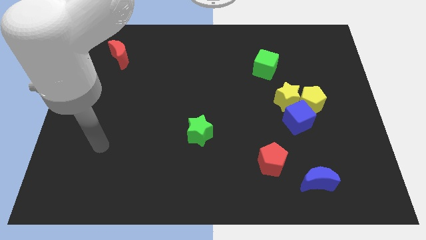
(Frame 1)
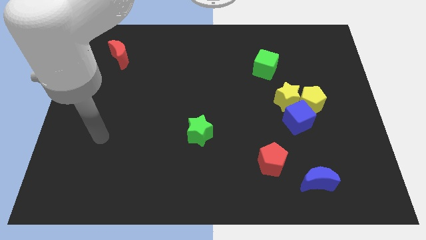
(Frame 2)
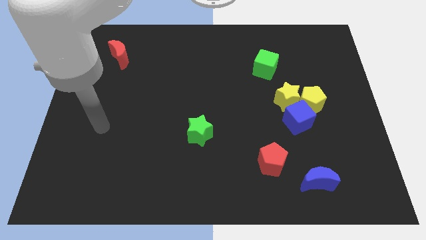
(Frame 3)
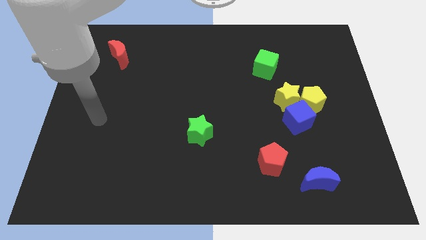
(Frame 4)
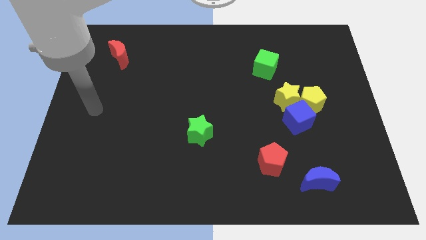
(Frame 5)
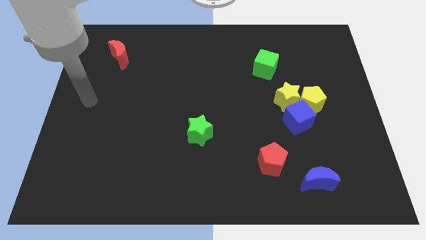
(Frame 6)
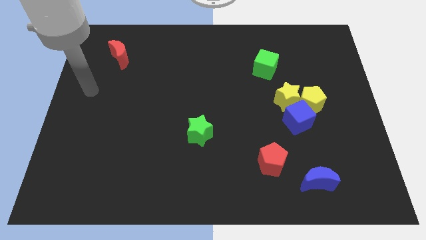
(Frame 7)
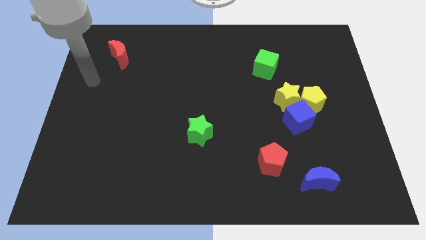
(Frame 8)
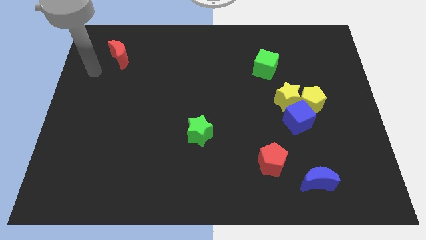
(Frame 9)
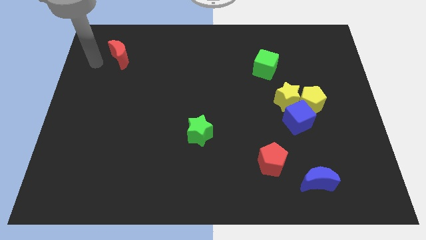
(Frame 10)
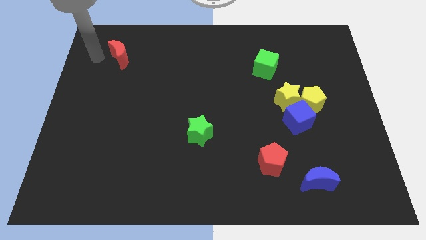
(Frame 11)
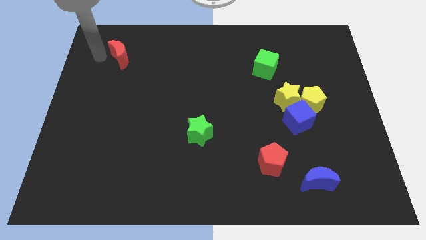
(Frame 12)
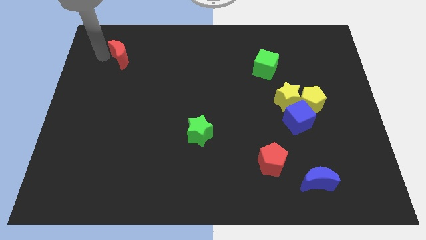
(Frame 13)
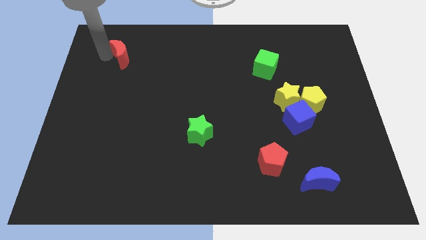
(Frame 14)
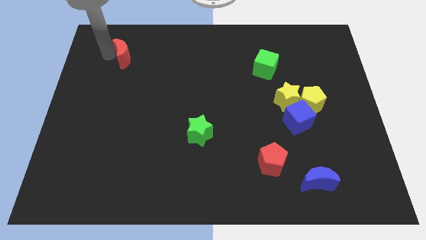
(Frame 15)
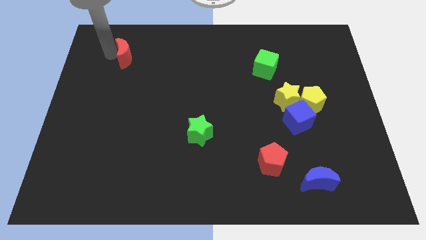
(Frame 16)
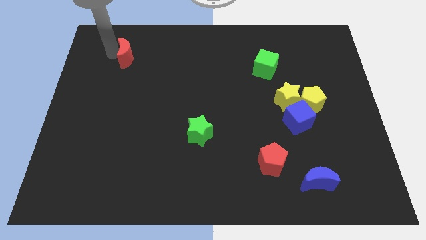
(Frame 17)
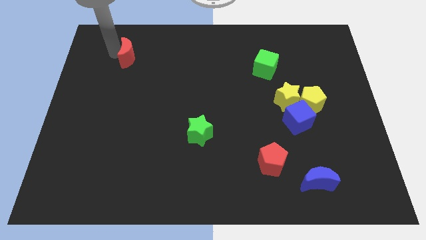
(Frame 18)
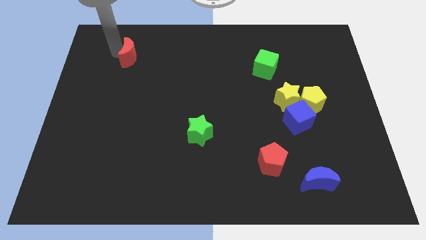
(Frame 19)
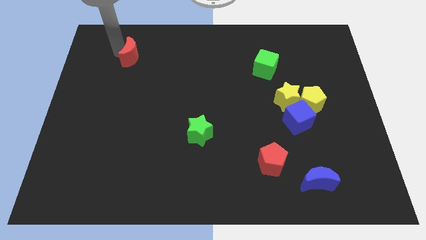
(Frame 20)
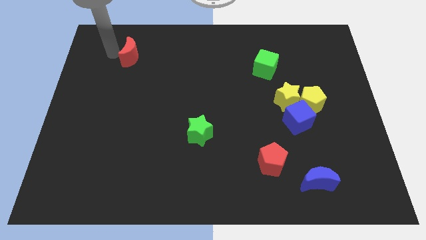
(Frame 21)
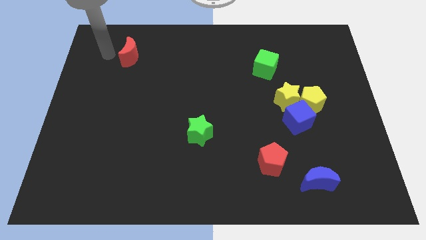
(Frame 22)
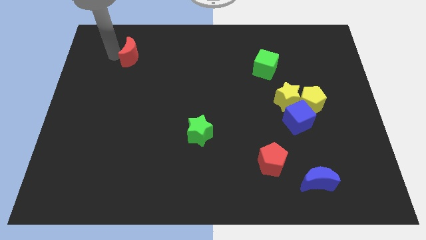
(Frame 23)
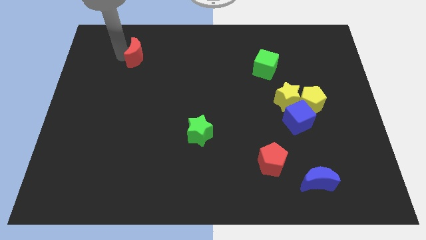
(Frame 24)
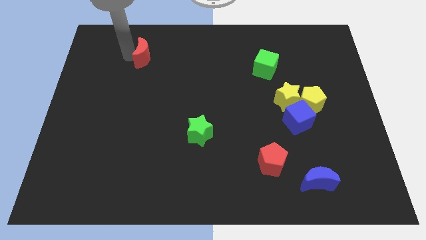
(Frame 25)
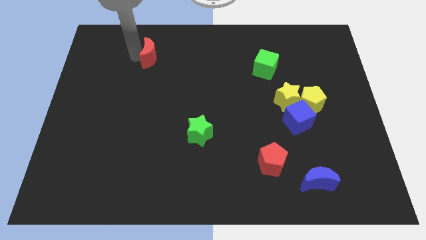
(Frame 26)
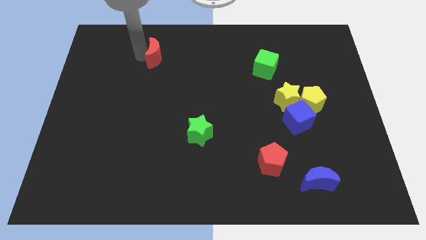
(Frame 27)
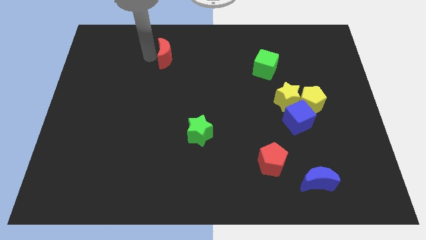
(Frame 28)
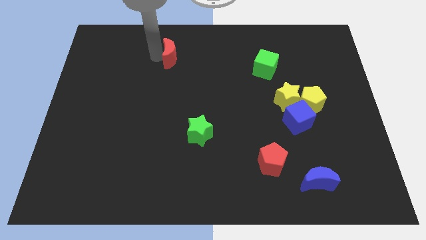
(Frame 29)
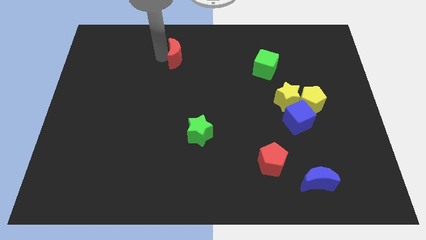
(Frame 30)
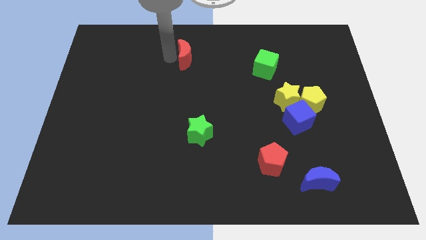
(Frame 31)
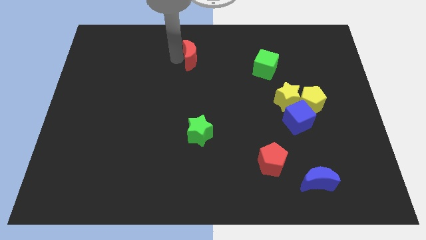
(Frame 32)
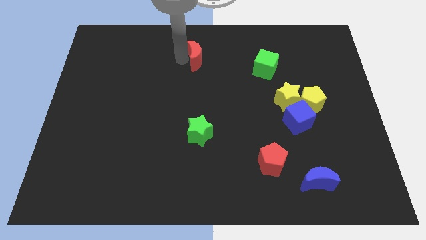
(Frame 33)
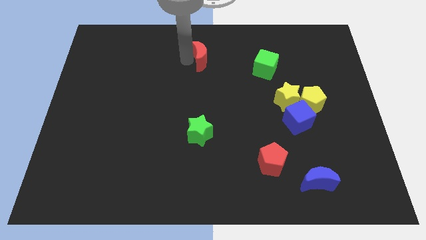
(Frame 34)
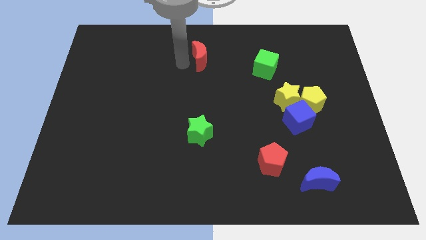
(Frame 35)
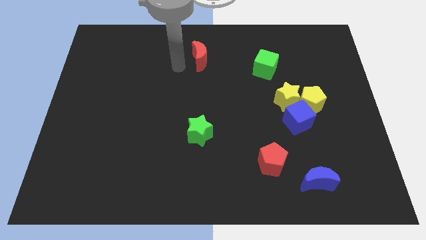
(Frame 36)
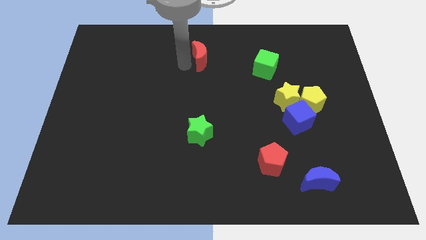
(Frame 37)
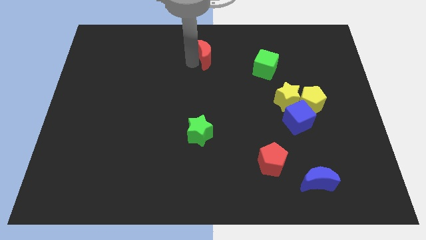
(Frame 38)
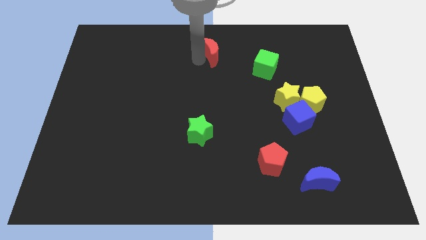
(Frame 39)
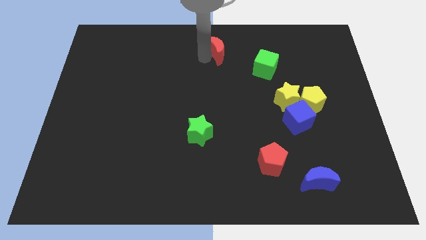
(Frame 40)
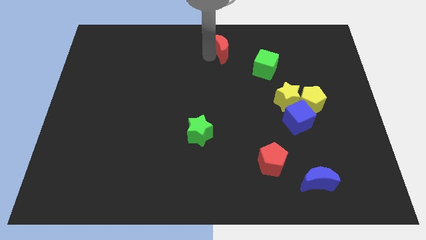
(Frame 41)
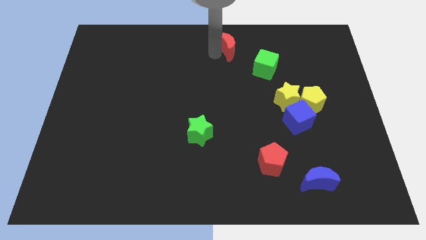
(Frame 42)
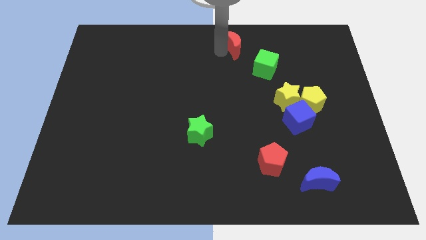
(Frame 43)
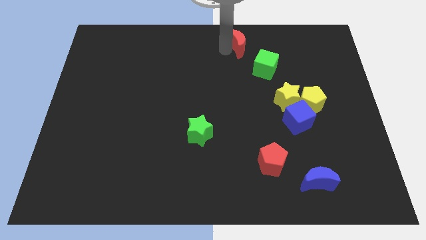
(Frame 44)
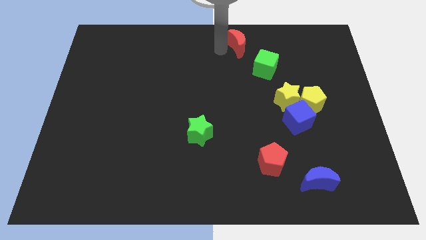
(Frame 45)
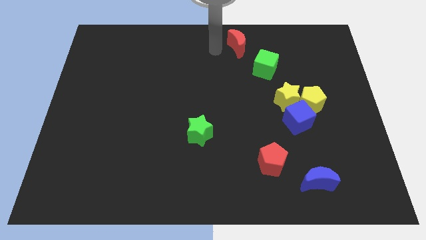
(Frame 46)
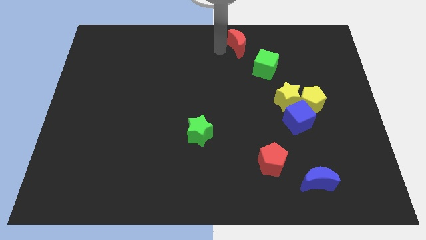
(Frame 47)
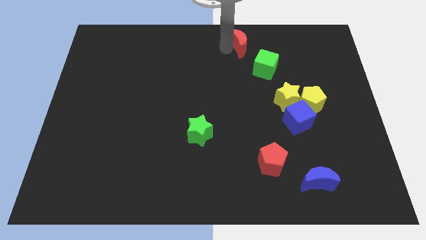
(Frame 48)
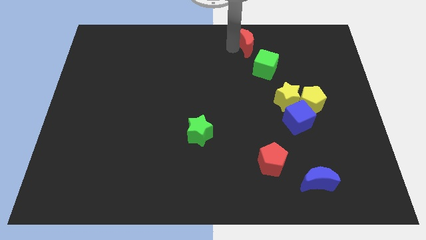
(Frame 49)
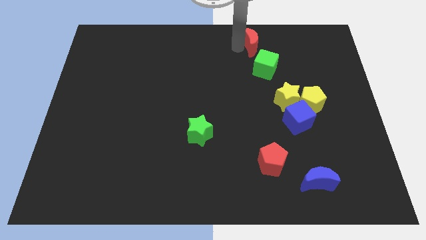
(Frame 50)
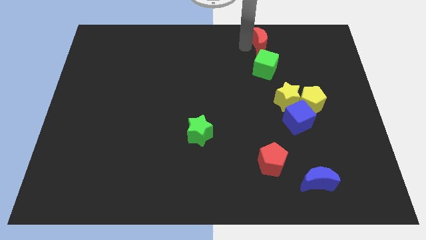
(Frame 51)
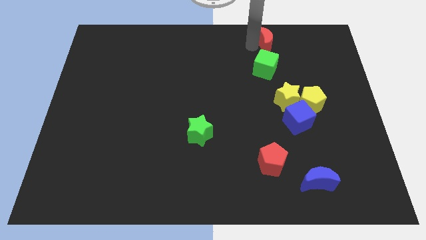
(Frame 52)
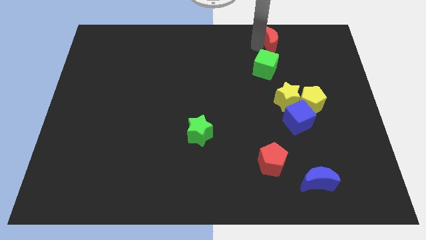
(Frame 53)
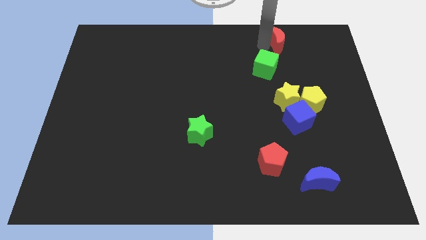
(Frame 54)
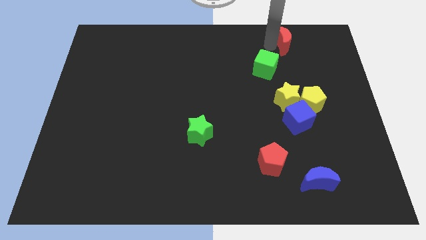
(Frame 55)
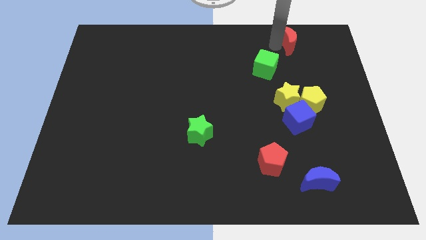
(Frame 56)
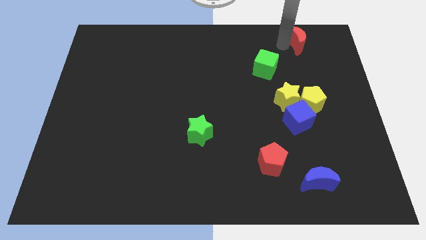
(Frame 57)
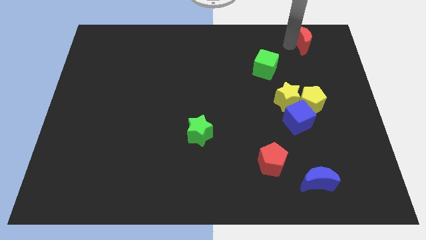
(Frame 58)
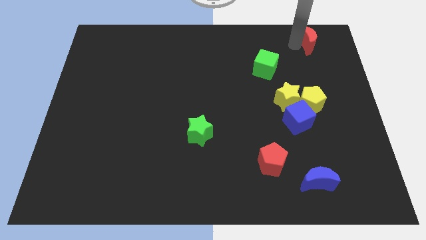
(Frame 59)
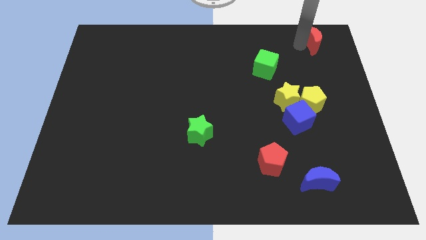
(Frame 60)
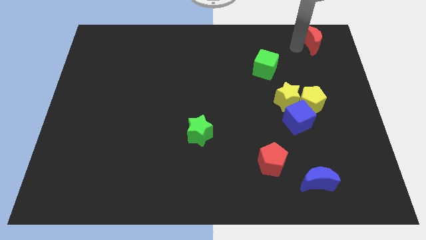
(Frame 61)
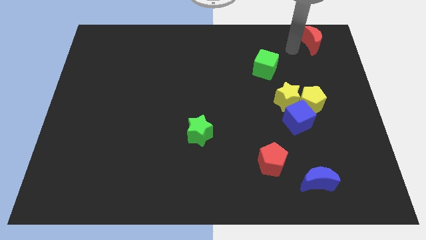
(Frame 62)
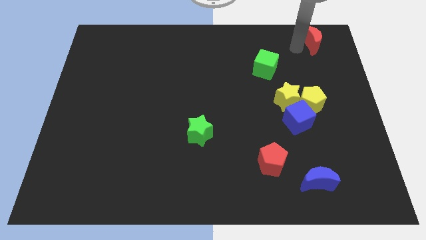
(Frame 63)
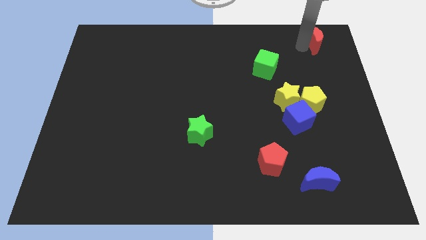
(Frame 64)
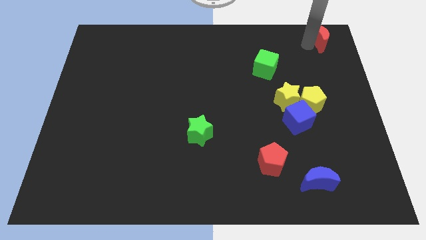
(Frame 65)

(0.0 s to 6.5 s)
move the red moon to the top right of the board
